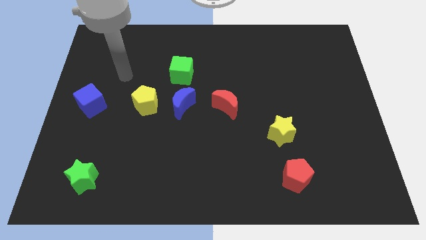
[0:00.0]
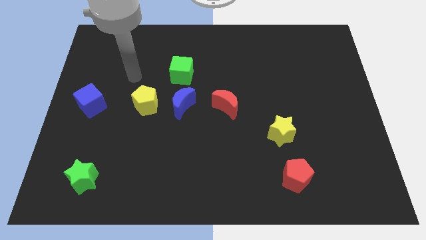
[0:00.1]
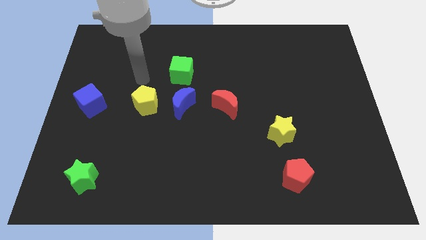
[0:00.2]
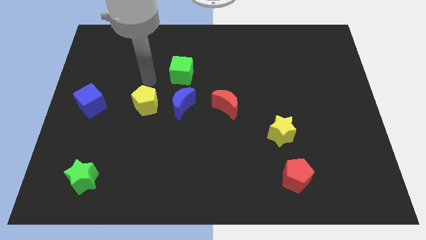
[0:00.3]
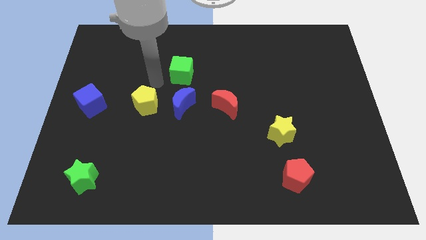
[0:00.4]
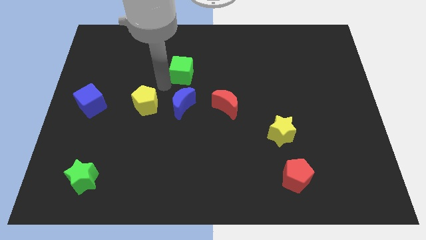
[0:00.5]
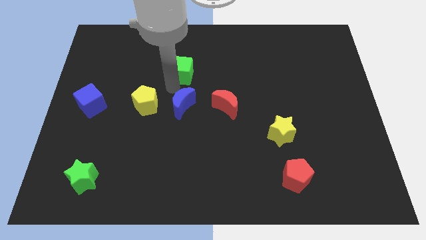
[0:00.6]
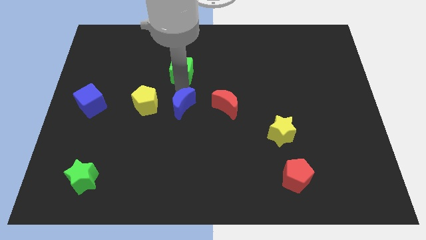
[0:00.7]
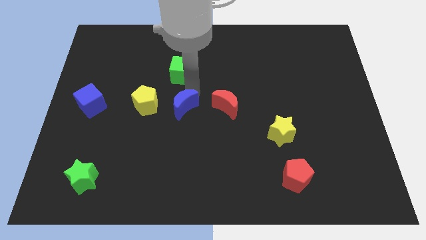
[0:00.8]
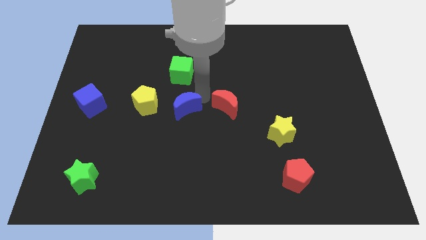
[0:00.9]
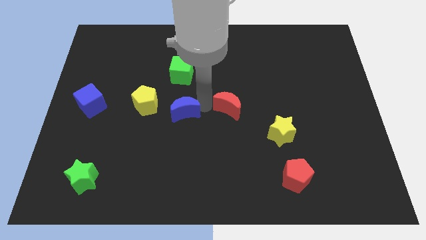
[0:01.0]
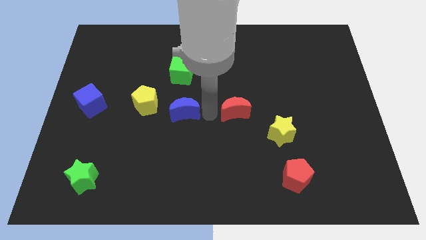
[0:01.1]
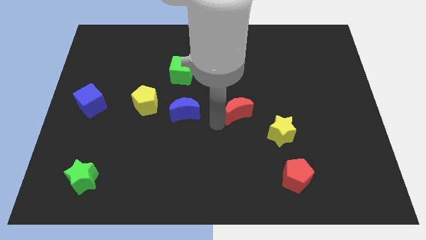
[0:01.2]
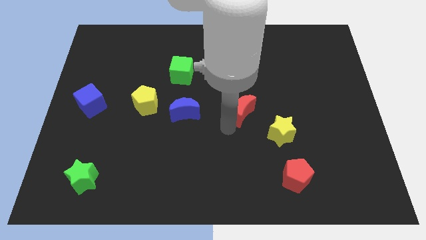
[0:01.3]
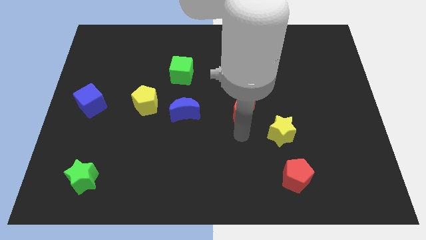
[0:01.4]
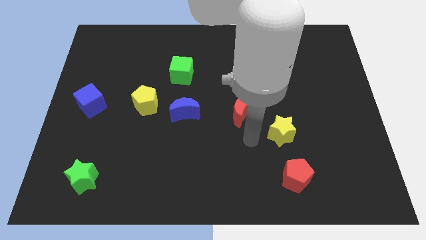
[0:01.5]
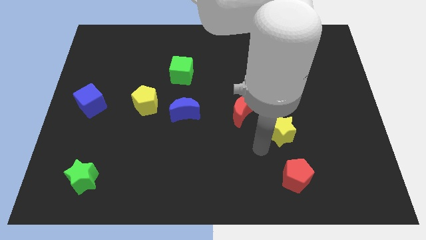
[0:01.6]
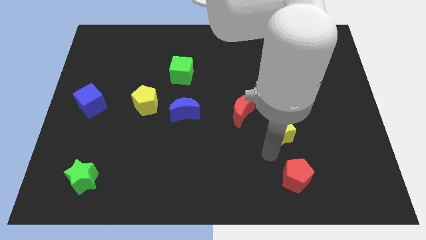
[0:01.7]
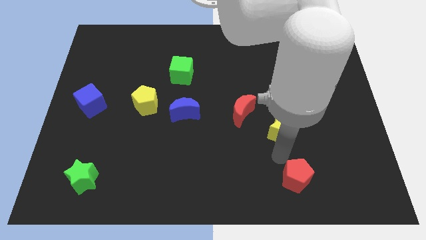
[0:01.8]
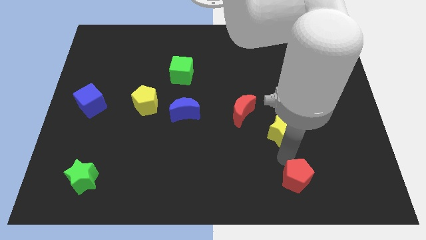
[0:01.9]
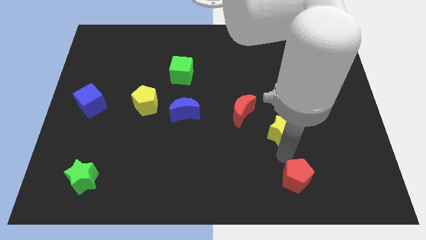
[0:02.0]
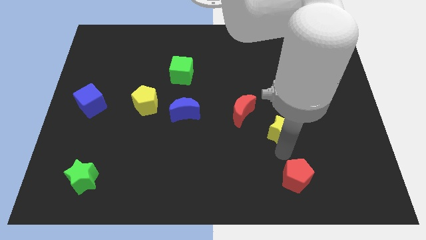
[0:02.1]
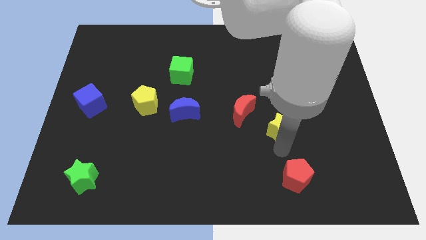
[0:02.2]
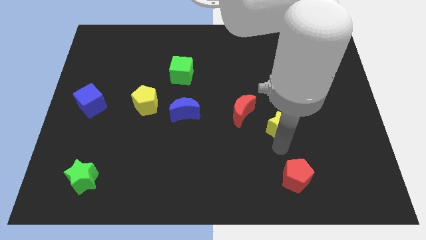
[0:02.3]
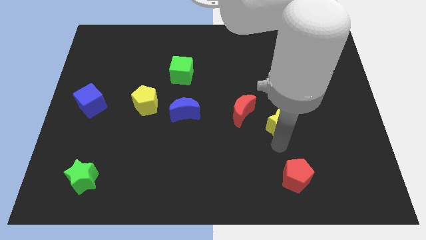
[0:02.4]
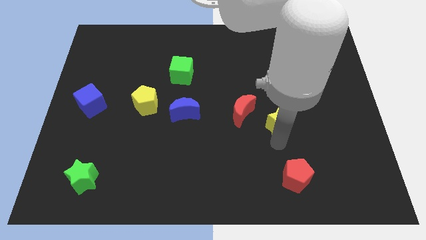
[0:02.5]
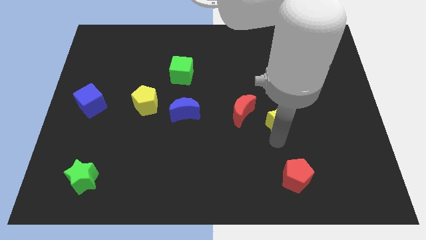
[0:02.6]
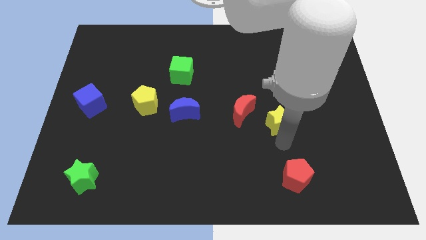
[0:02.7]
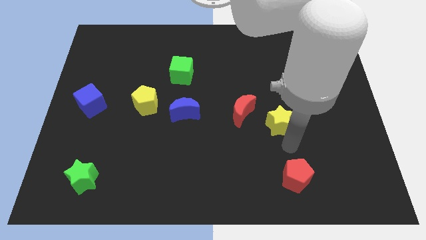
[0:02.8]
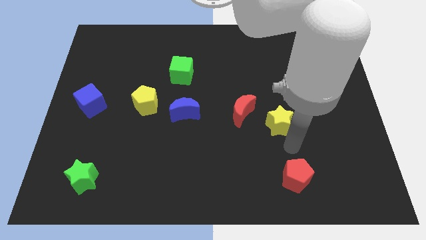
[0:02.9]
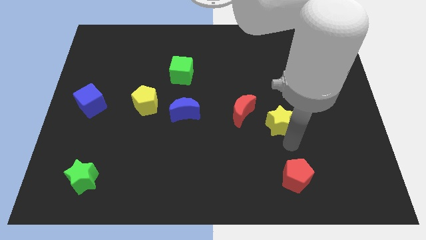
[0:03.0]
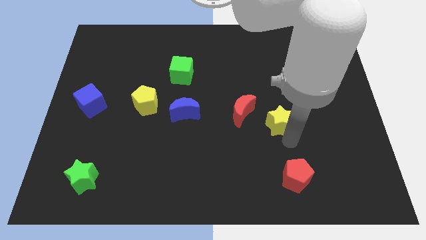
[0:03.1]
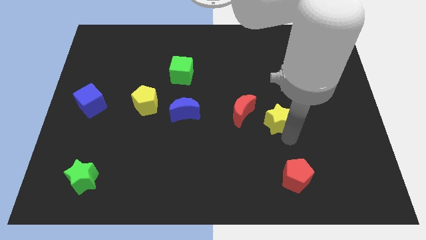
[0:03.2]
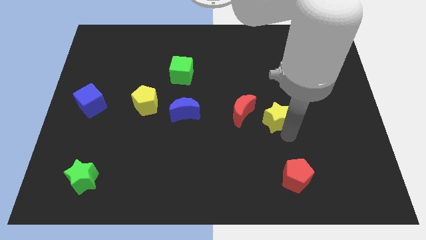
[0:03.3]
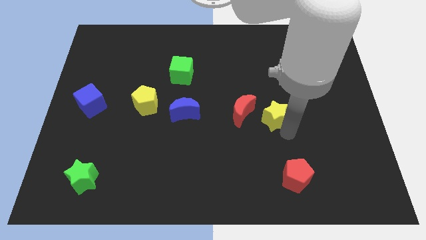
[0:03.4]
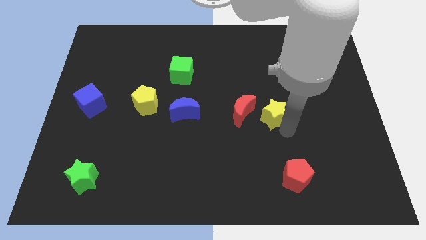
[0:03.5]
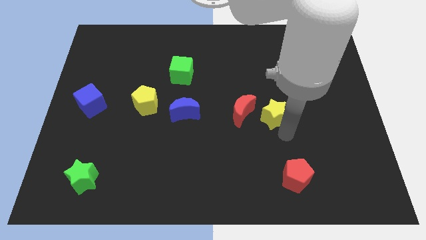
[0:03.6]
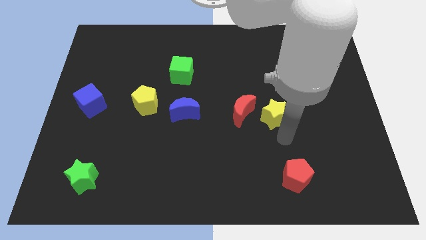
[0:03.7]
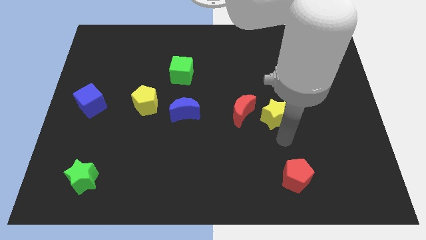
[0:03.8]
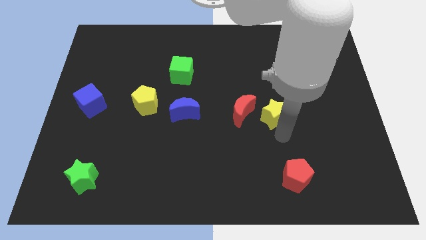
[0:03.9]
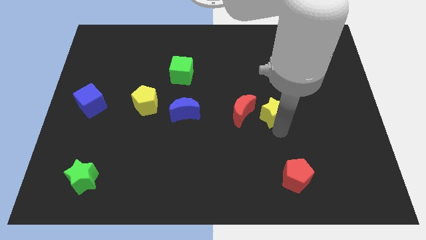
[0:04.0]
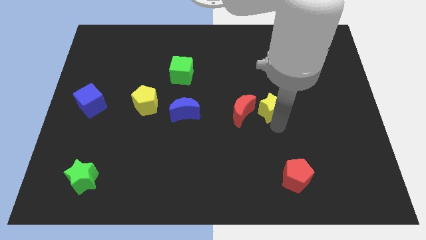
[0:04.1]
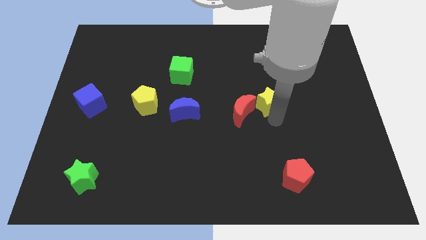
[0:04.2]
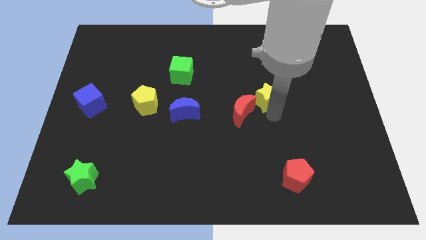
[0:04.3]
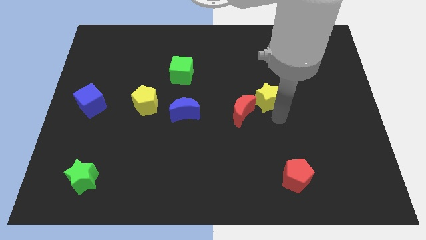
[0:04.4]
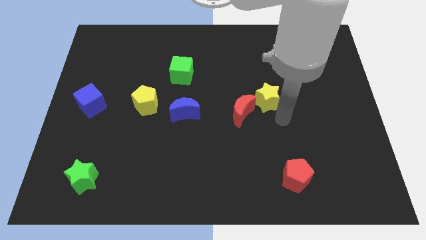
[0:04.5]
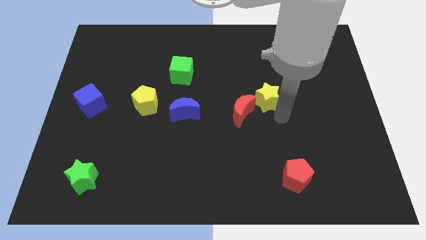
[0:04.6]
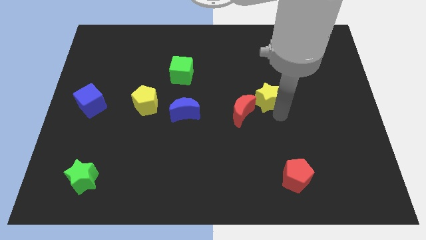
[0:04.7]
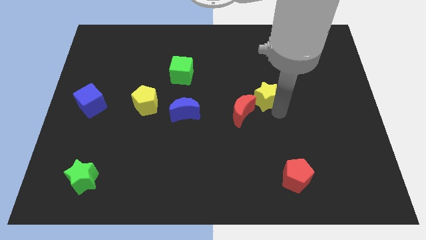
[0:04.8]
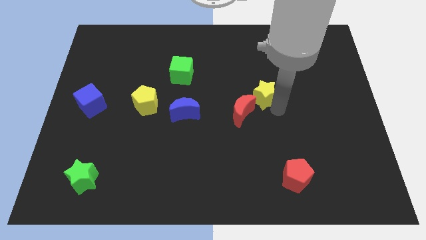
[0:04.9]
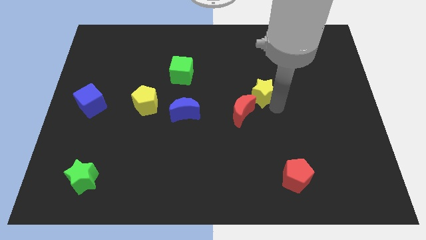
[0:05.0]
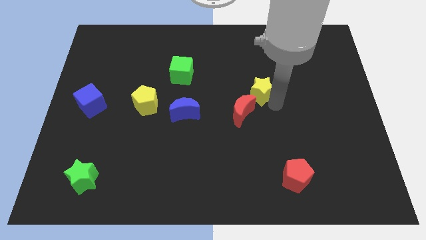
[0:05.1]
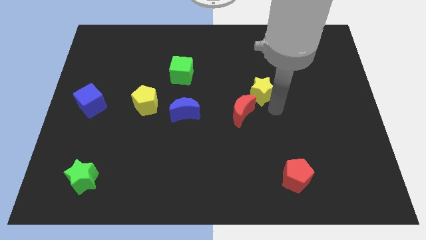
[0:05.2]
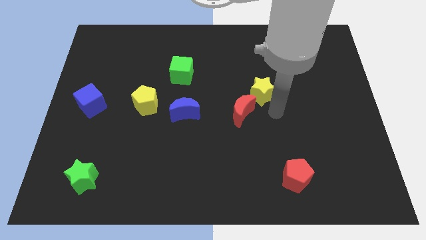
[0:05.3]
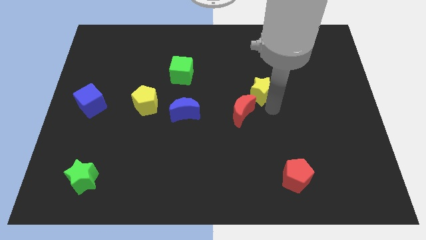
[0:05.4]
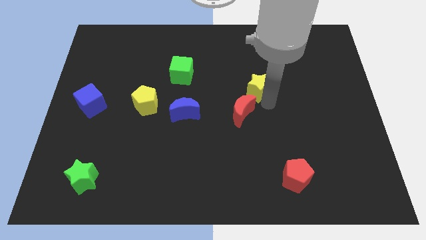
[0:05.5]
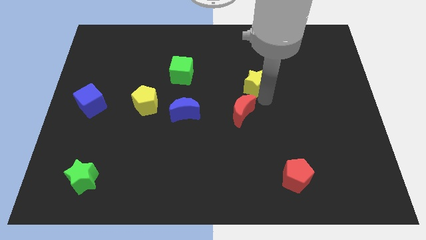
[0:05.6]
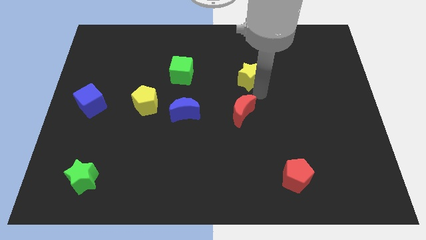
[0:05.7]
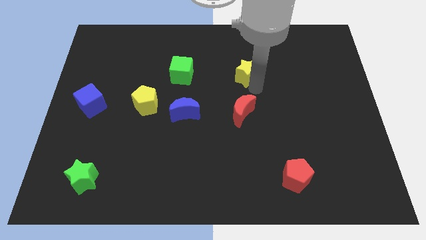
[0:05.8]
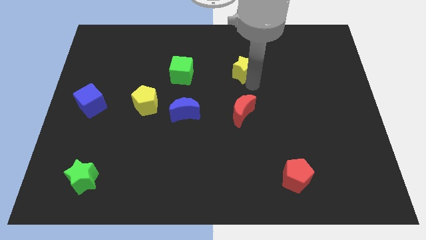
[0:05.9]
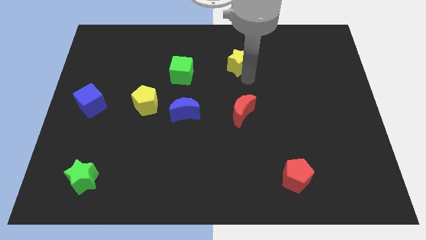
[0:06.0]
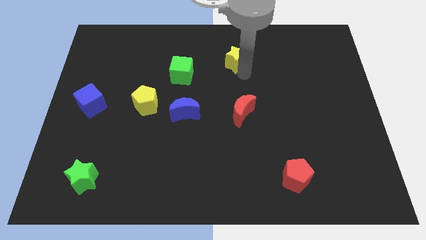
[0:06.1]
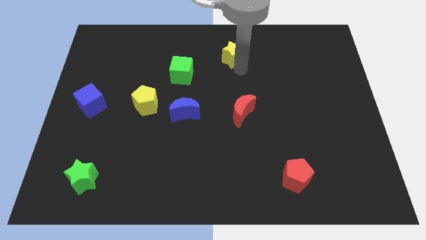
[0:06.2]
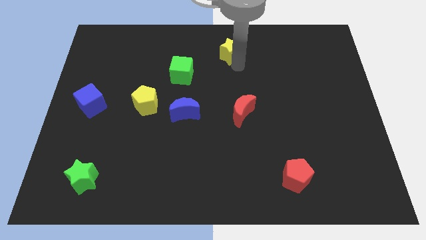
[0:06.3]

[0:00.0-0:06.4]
put the yellow star to the top
